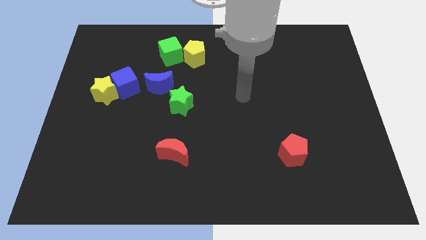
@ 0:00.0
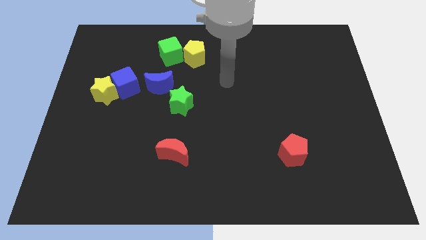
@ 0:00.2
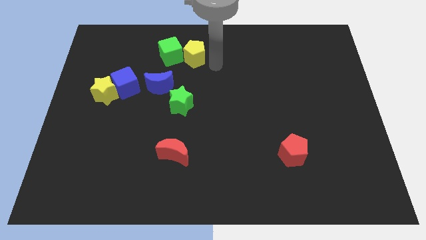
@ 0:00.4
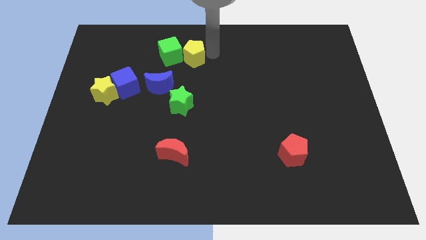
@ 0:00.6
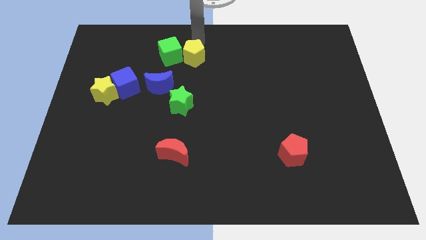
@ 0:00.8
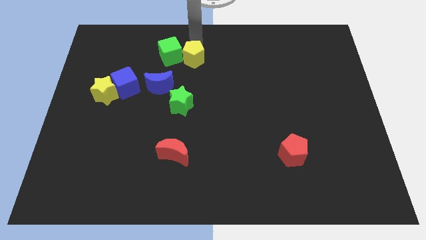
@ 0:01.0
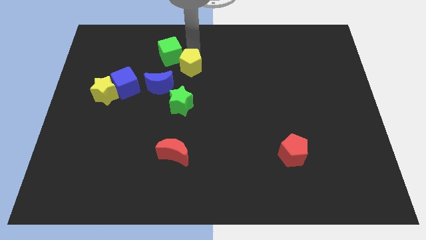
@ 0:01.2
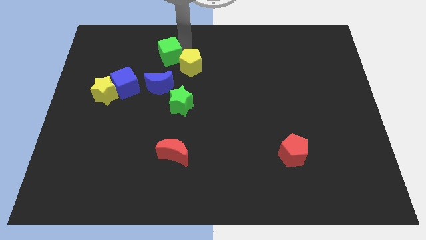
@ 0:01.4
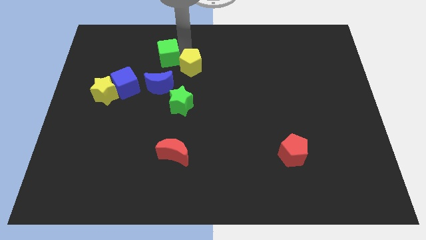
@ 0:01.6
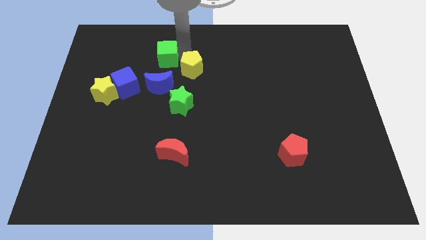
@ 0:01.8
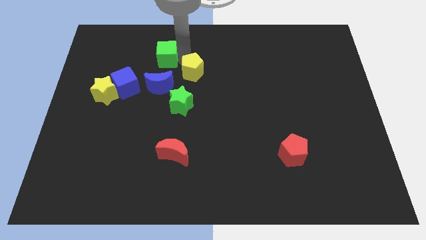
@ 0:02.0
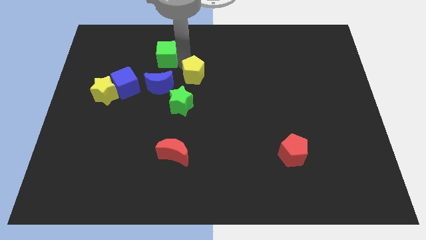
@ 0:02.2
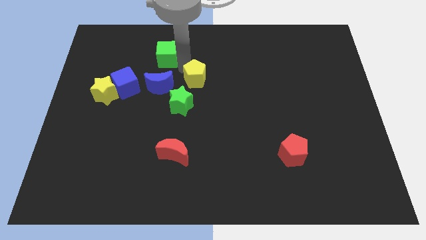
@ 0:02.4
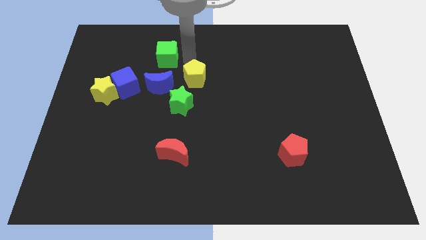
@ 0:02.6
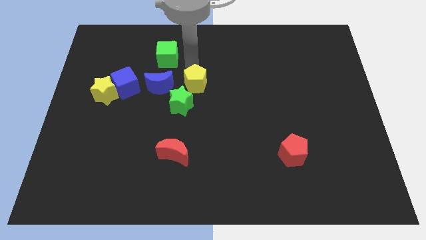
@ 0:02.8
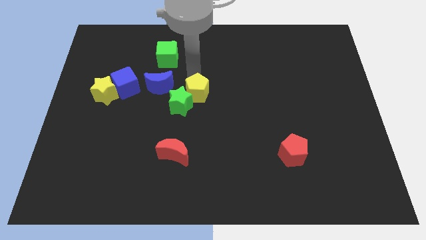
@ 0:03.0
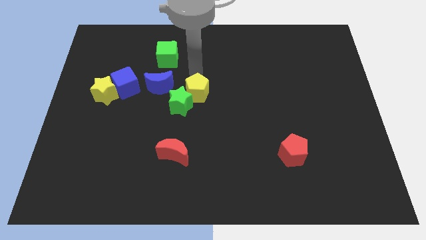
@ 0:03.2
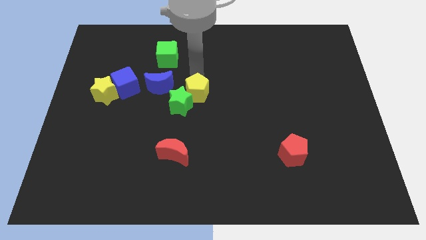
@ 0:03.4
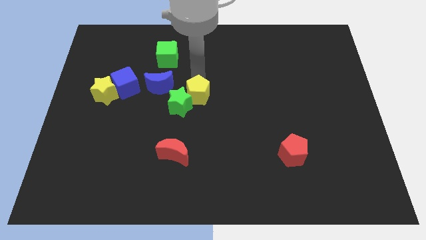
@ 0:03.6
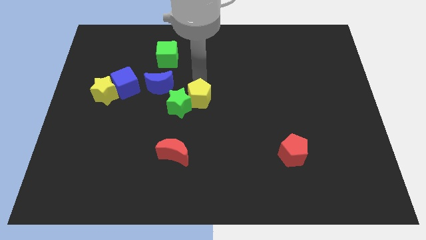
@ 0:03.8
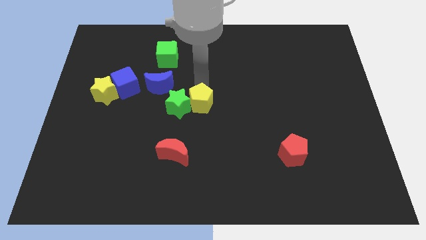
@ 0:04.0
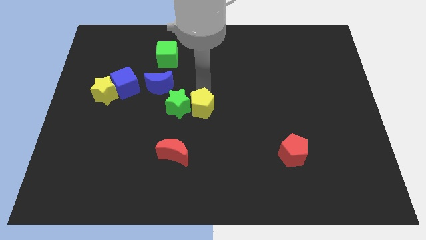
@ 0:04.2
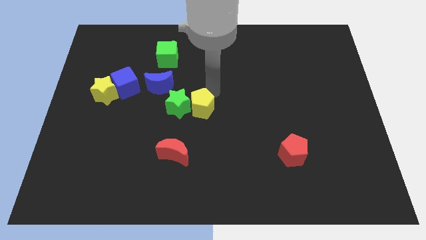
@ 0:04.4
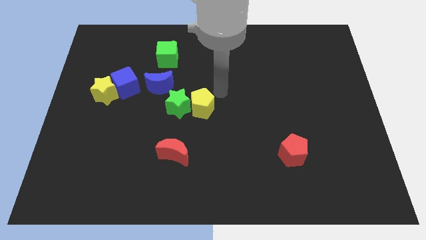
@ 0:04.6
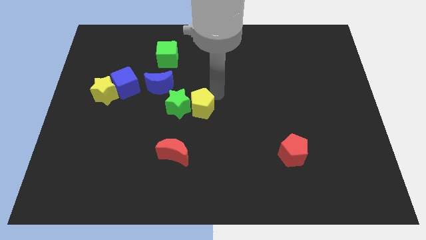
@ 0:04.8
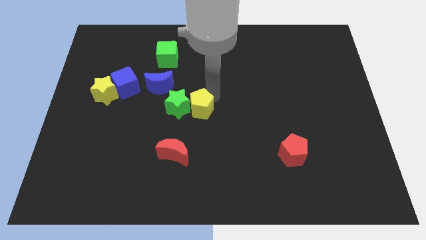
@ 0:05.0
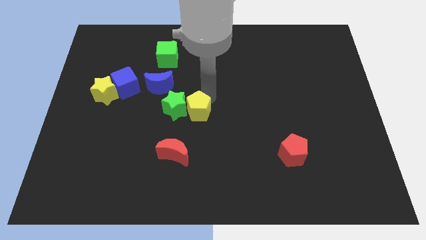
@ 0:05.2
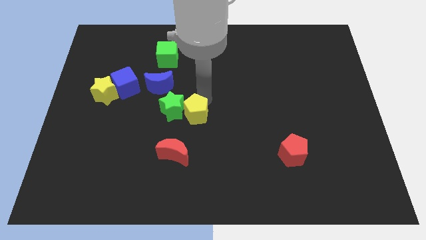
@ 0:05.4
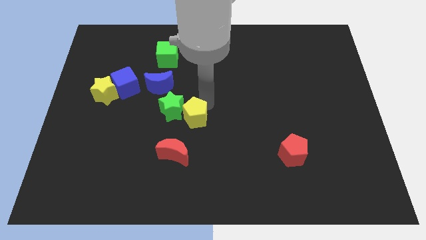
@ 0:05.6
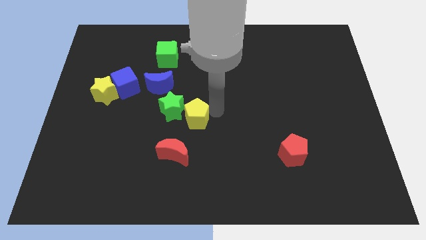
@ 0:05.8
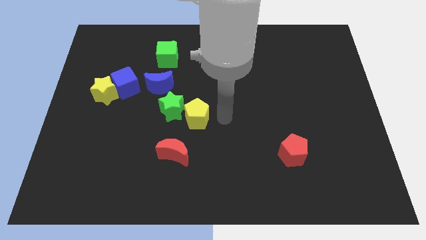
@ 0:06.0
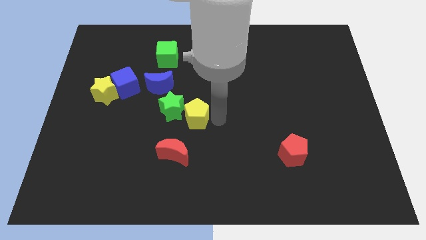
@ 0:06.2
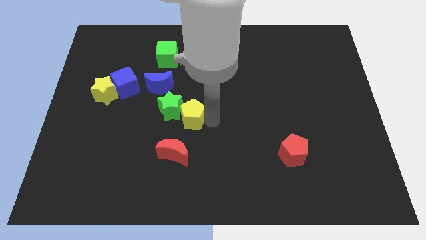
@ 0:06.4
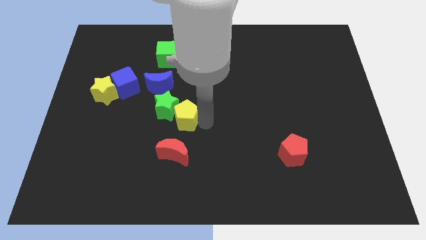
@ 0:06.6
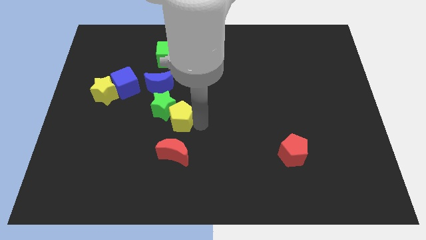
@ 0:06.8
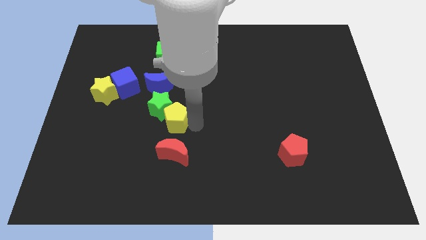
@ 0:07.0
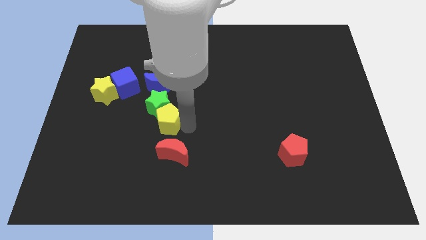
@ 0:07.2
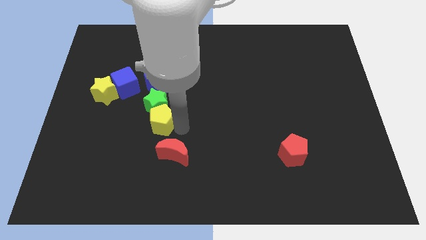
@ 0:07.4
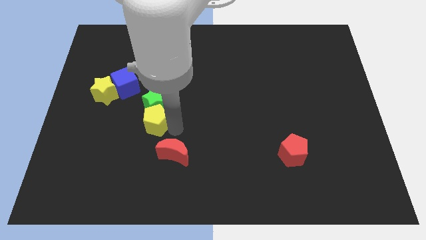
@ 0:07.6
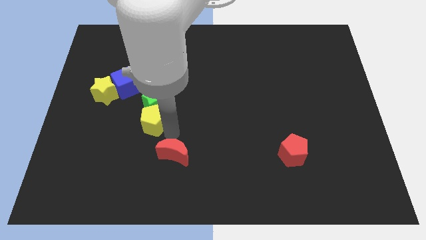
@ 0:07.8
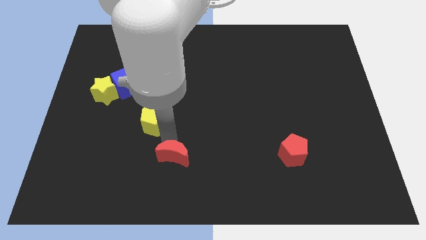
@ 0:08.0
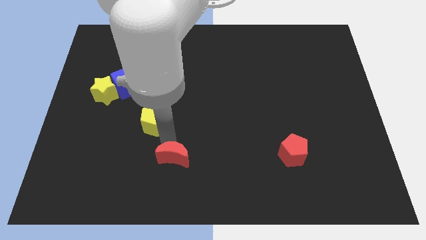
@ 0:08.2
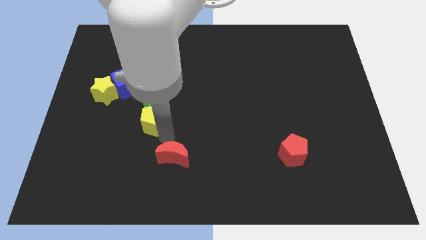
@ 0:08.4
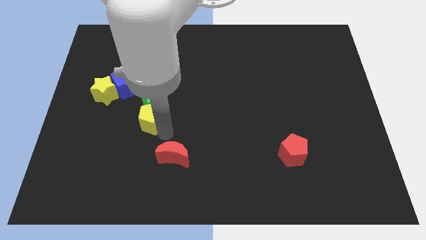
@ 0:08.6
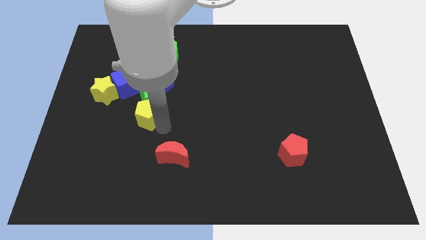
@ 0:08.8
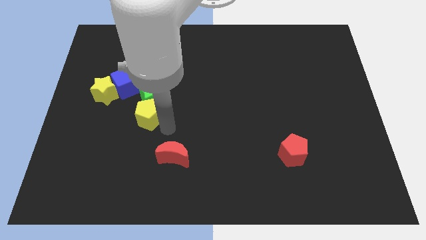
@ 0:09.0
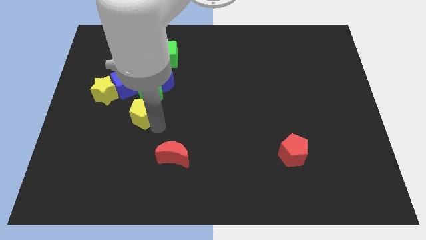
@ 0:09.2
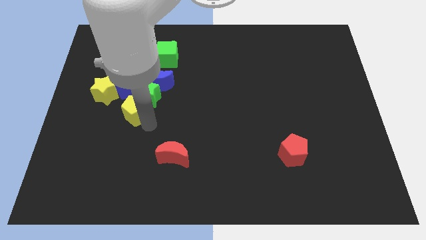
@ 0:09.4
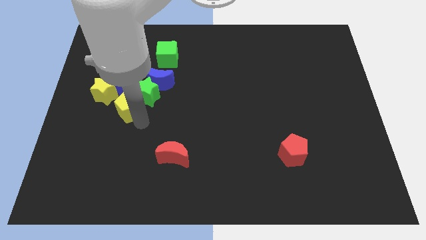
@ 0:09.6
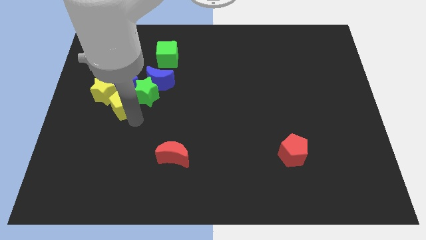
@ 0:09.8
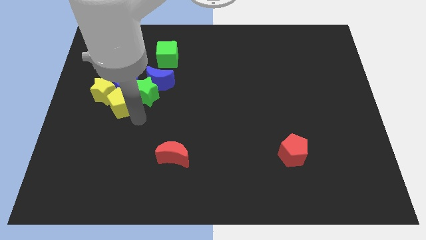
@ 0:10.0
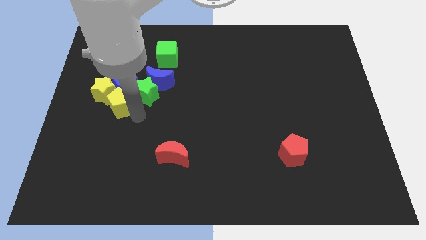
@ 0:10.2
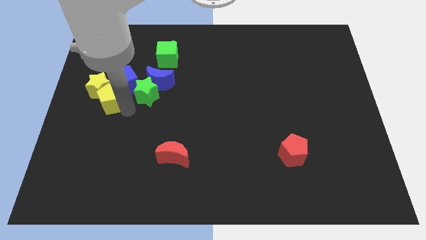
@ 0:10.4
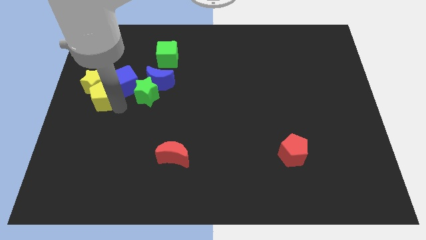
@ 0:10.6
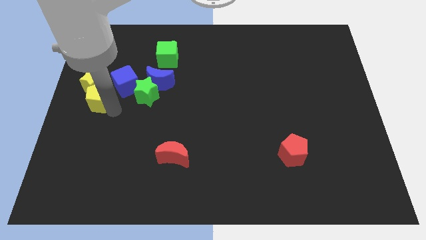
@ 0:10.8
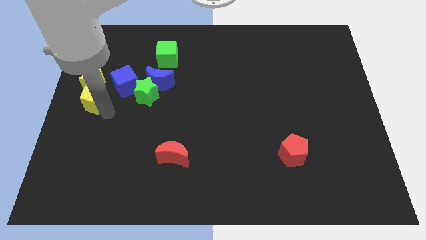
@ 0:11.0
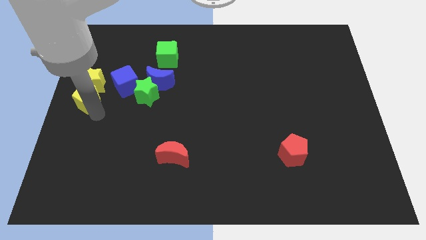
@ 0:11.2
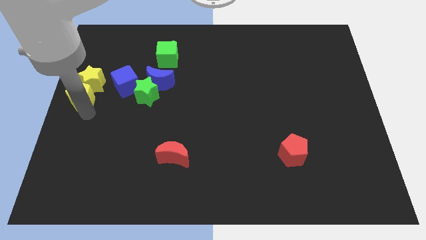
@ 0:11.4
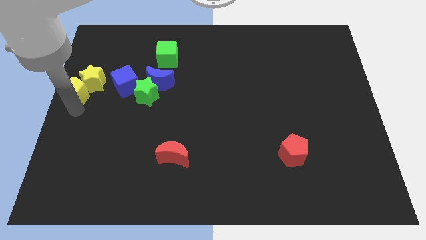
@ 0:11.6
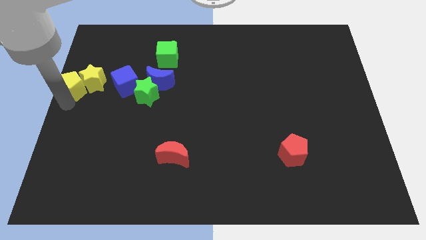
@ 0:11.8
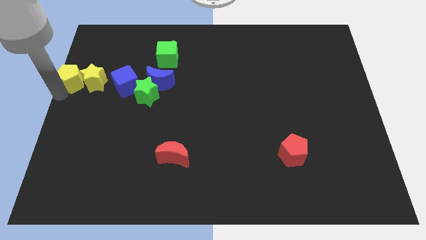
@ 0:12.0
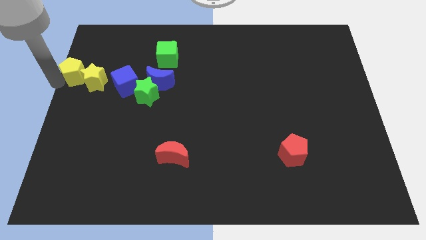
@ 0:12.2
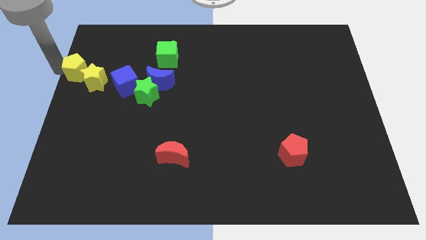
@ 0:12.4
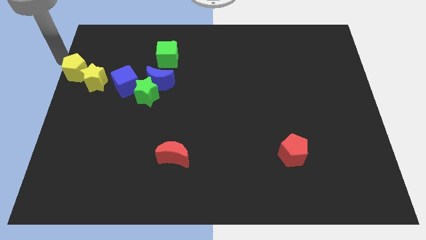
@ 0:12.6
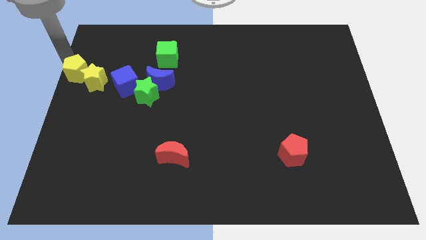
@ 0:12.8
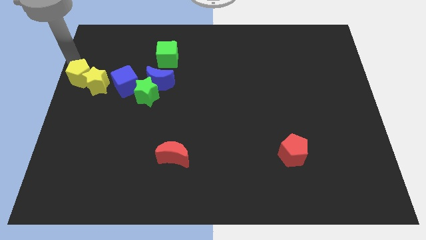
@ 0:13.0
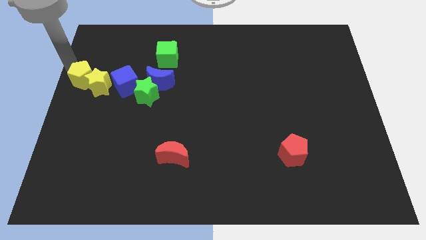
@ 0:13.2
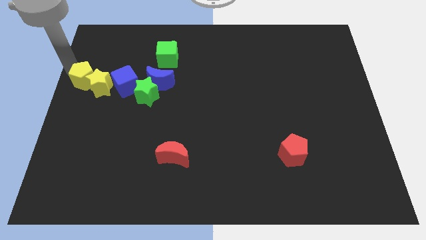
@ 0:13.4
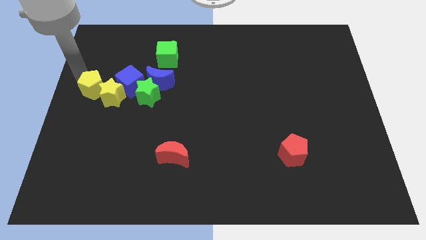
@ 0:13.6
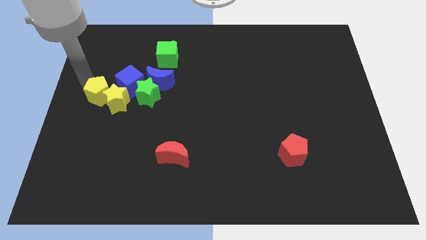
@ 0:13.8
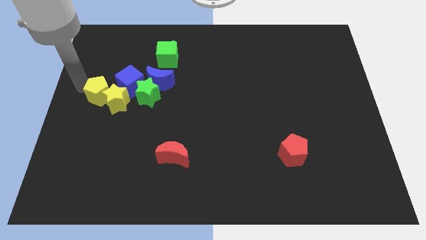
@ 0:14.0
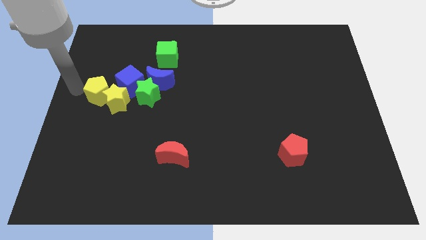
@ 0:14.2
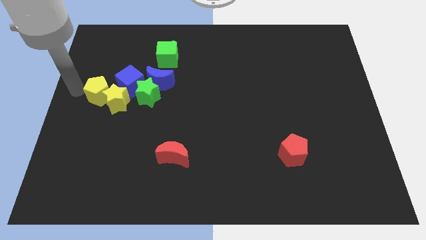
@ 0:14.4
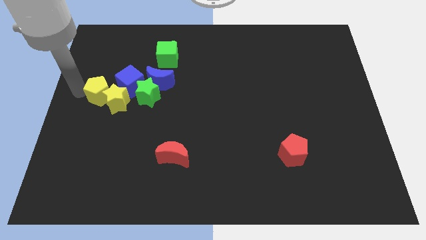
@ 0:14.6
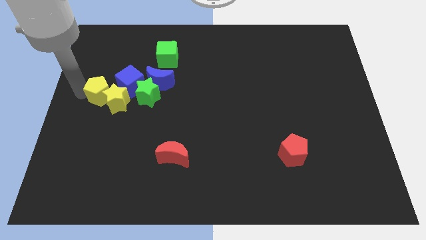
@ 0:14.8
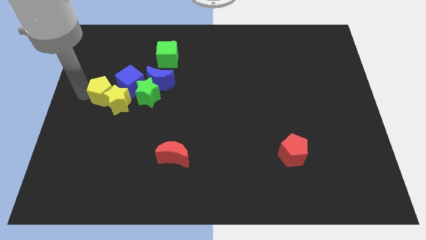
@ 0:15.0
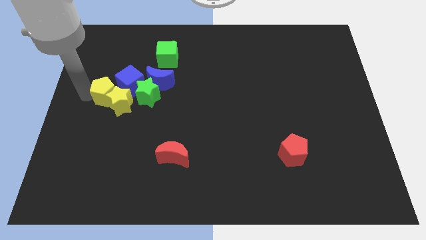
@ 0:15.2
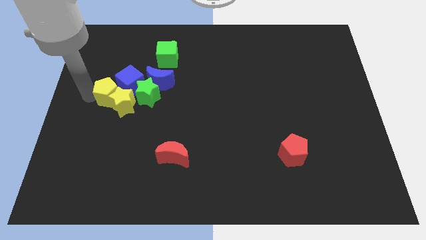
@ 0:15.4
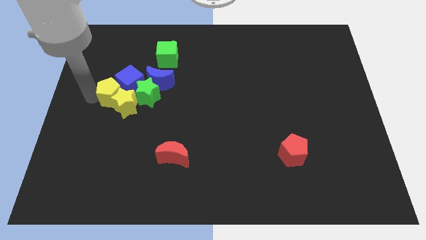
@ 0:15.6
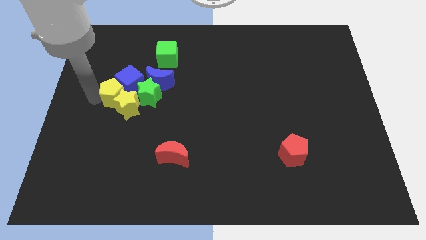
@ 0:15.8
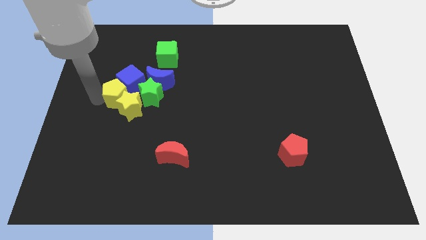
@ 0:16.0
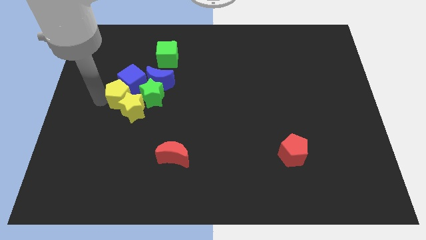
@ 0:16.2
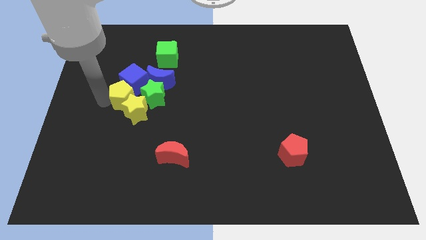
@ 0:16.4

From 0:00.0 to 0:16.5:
put the yellow pentagon left of the green star
